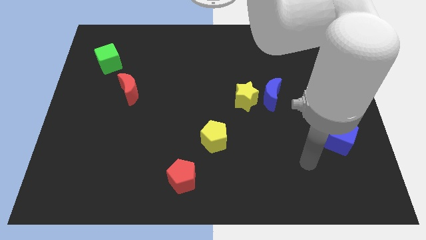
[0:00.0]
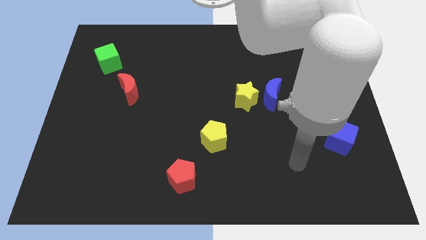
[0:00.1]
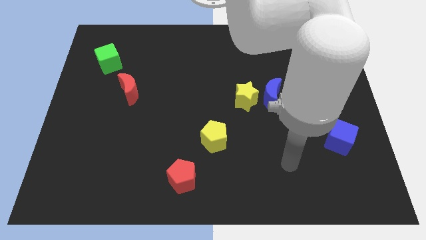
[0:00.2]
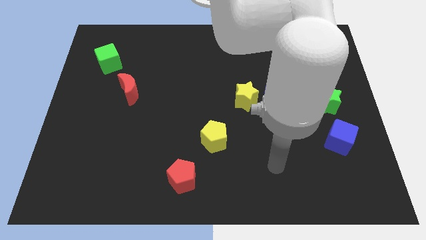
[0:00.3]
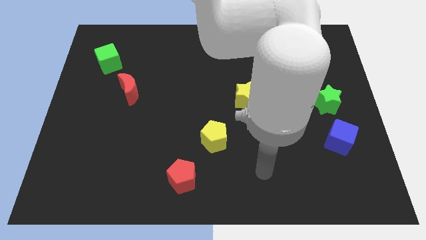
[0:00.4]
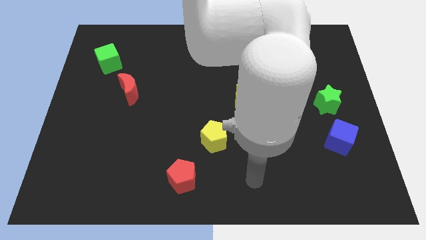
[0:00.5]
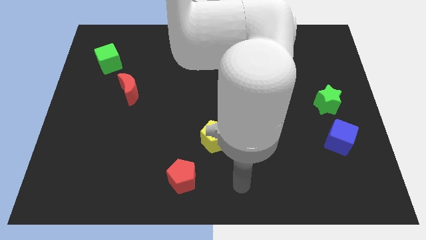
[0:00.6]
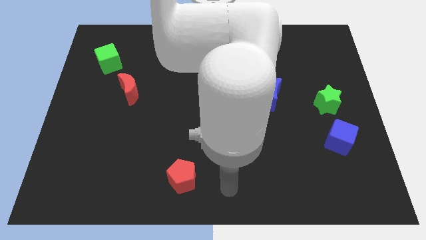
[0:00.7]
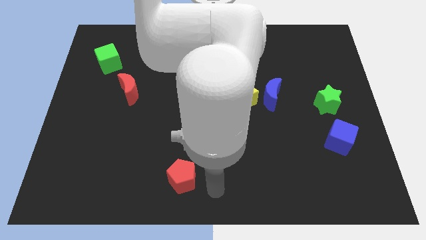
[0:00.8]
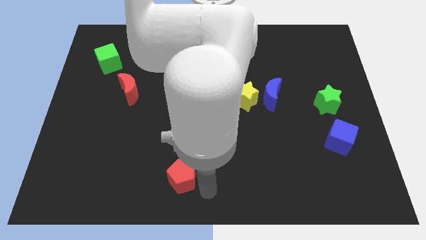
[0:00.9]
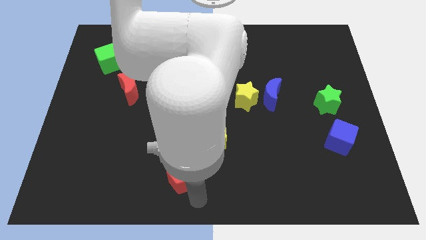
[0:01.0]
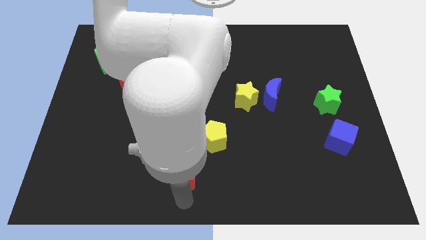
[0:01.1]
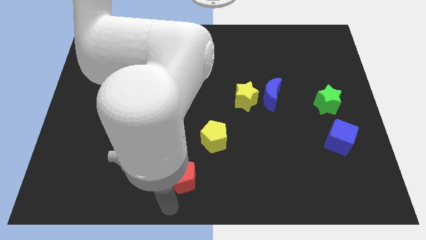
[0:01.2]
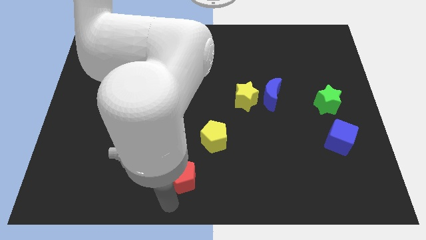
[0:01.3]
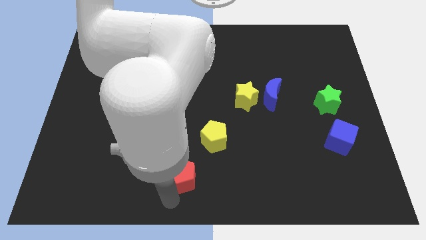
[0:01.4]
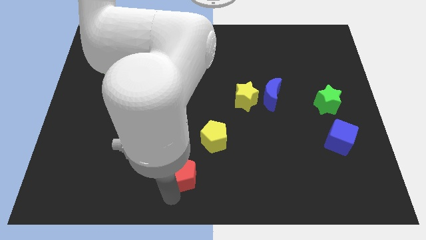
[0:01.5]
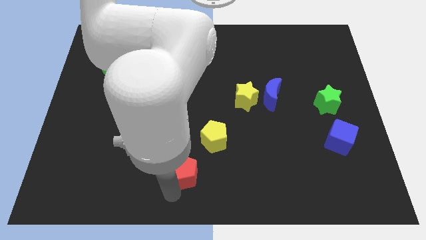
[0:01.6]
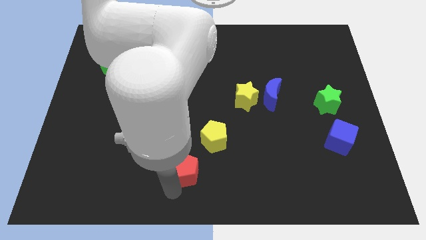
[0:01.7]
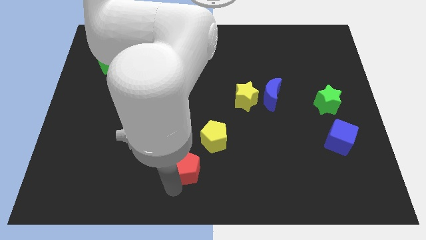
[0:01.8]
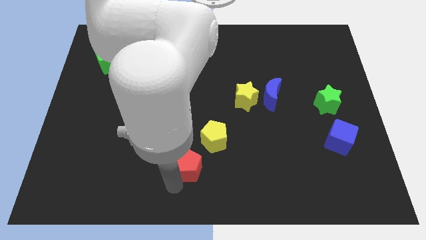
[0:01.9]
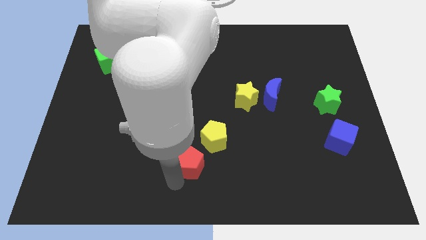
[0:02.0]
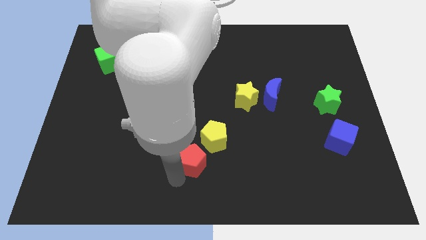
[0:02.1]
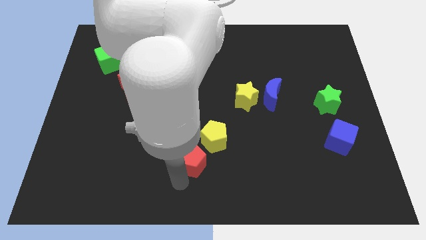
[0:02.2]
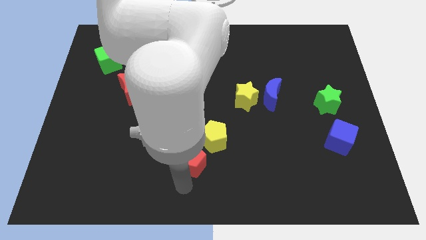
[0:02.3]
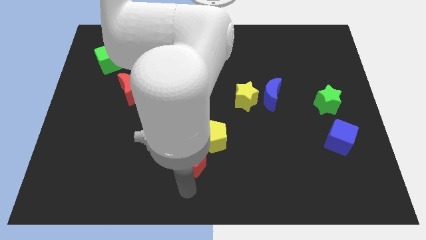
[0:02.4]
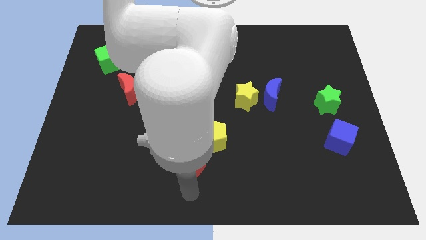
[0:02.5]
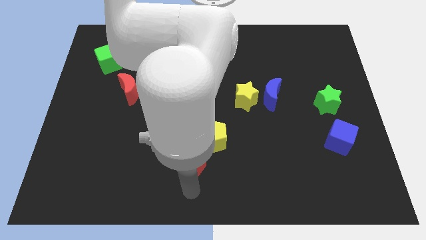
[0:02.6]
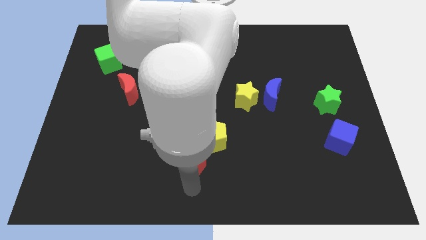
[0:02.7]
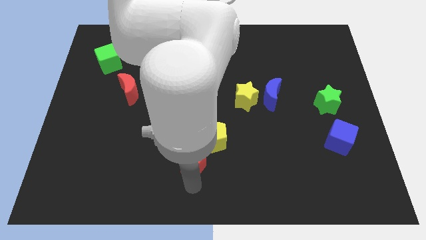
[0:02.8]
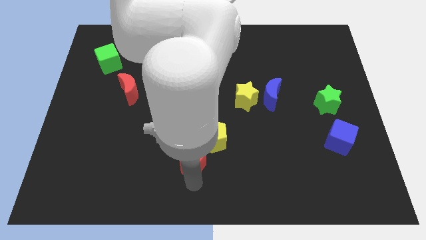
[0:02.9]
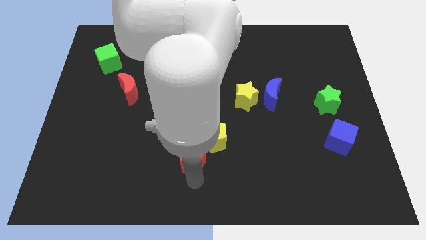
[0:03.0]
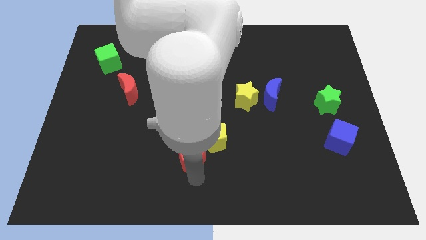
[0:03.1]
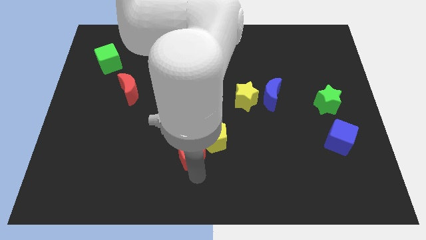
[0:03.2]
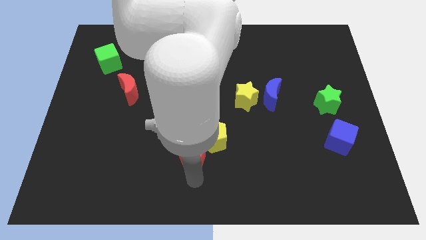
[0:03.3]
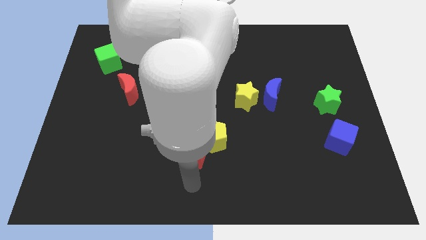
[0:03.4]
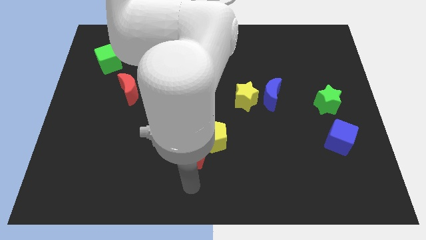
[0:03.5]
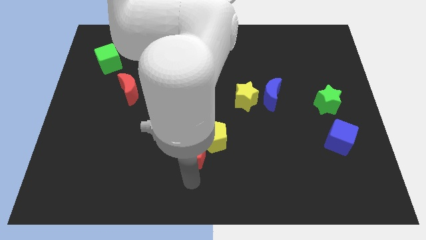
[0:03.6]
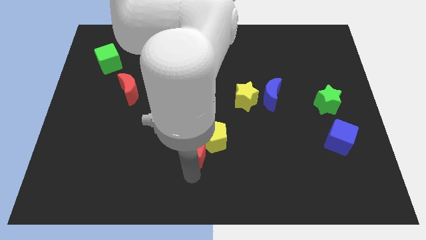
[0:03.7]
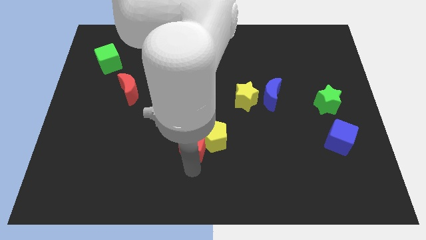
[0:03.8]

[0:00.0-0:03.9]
slightly slide the red pentagon upwards

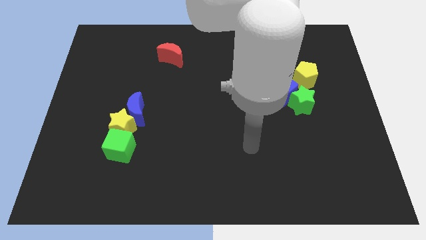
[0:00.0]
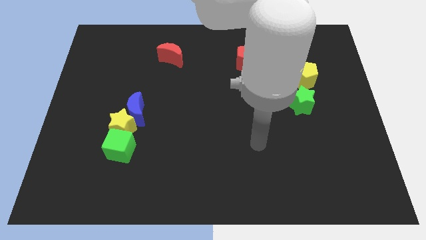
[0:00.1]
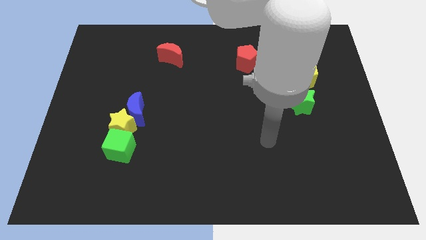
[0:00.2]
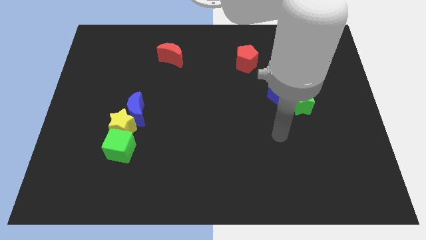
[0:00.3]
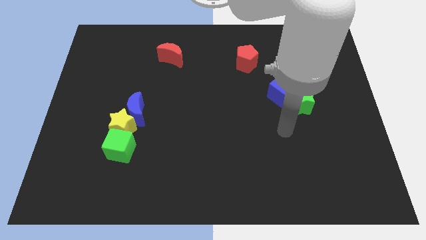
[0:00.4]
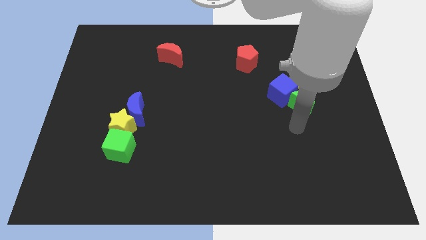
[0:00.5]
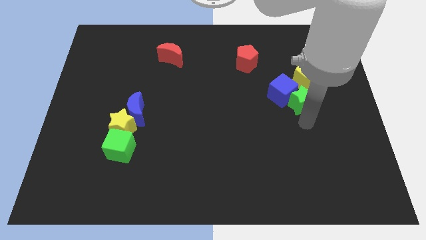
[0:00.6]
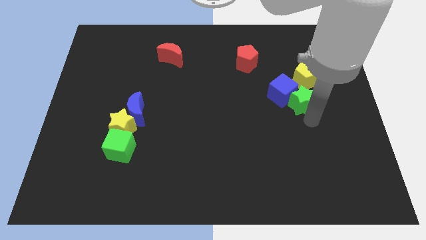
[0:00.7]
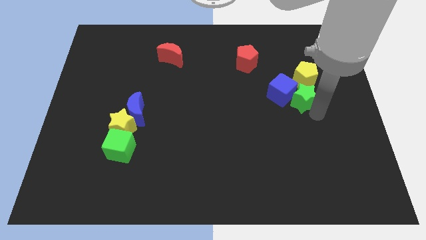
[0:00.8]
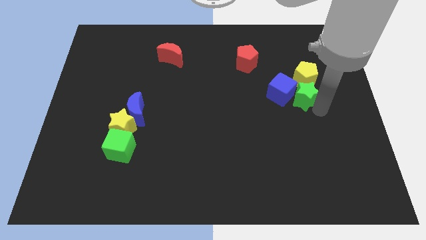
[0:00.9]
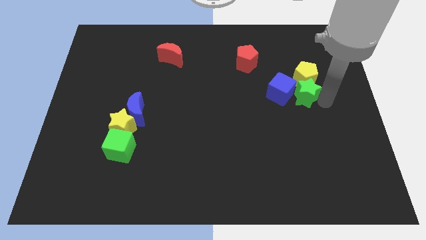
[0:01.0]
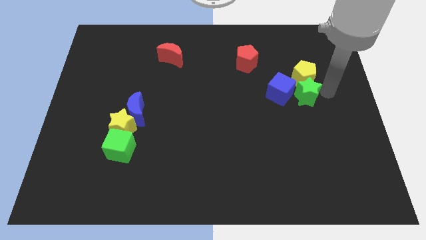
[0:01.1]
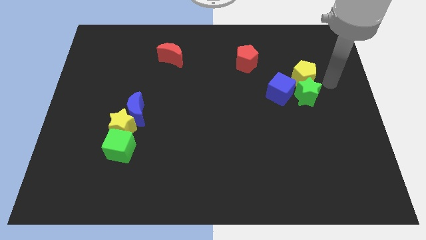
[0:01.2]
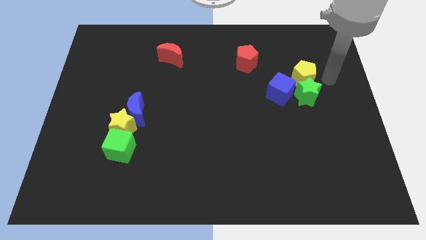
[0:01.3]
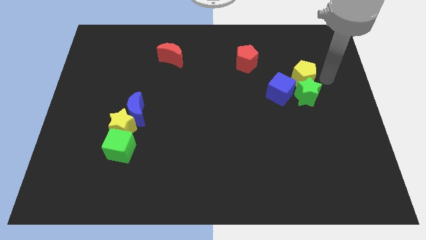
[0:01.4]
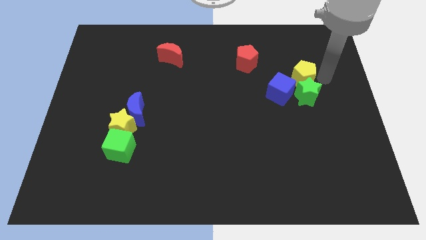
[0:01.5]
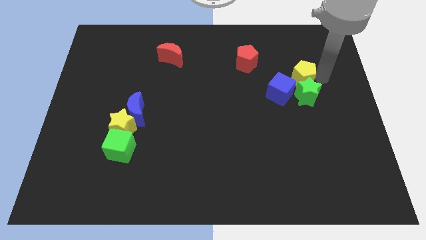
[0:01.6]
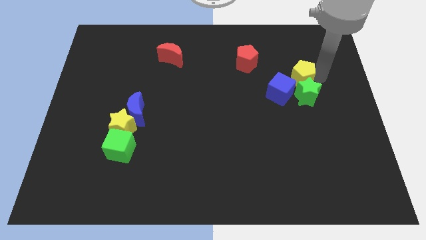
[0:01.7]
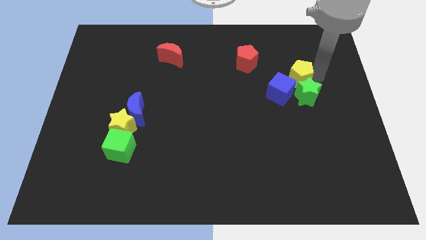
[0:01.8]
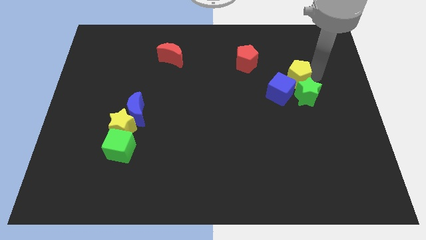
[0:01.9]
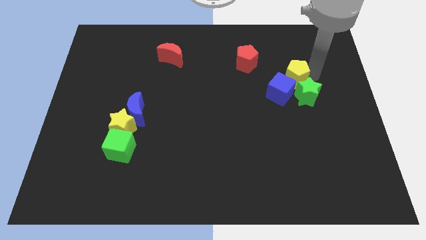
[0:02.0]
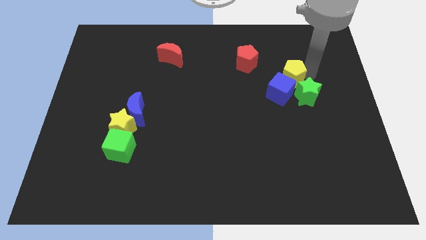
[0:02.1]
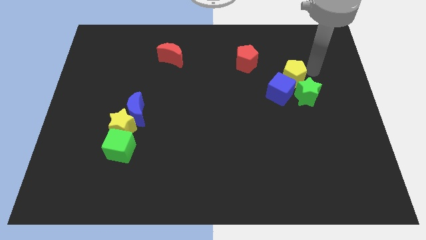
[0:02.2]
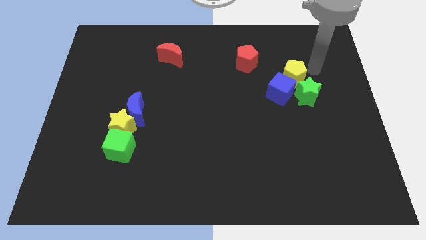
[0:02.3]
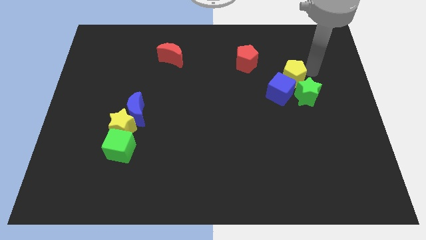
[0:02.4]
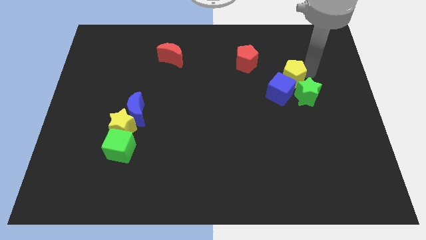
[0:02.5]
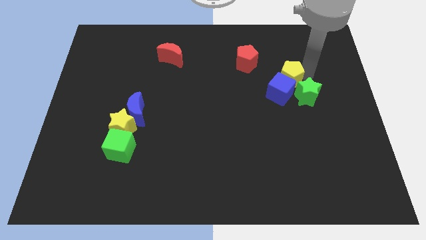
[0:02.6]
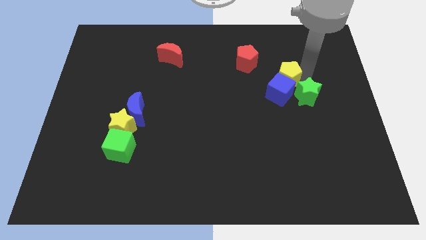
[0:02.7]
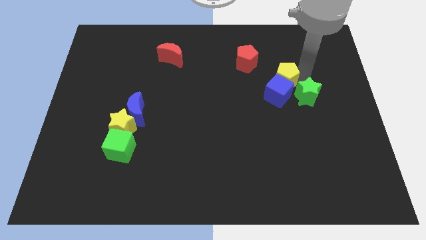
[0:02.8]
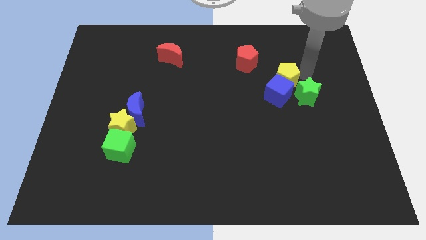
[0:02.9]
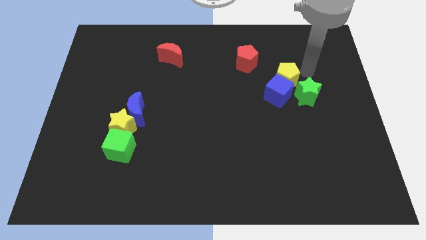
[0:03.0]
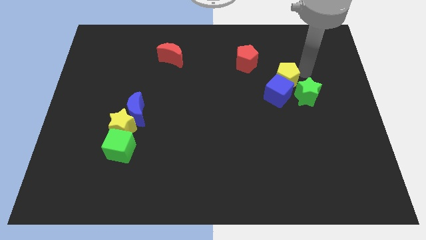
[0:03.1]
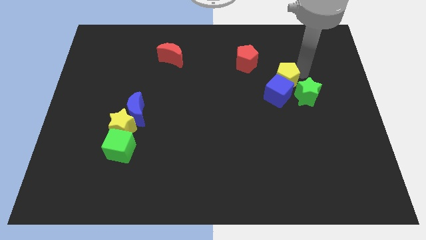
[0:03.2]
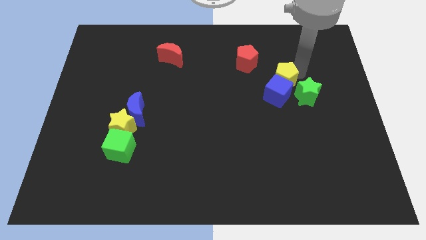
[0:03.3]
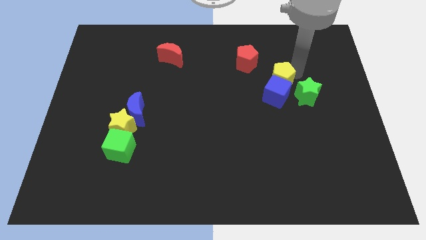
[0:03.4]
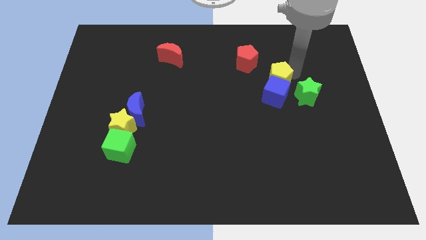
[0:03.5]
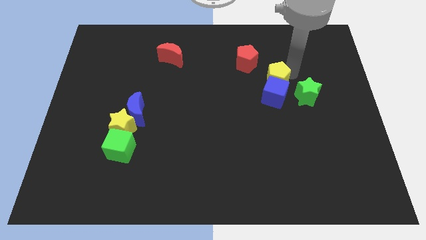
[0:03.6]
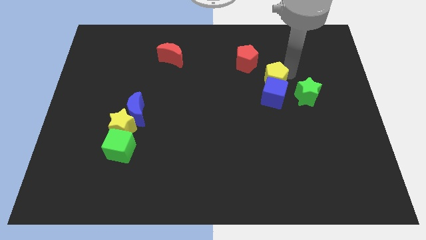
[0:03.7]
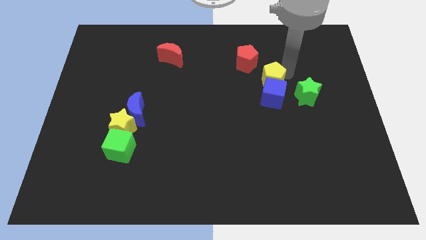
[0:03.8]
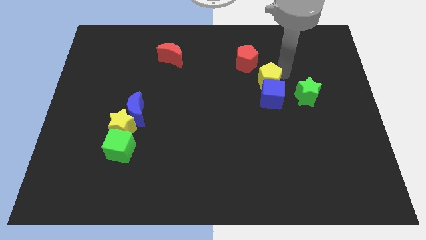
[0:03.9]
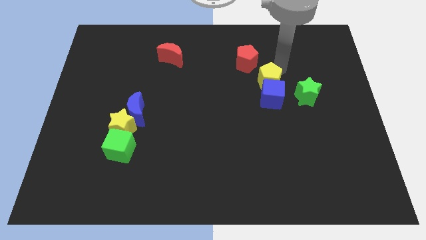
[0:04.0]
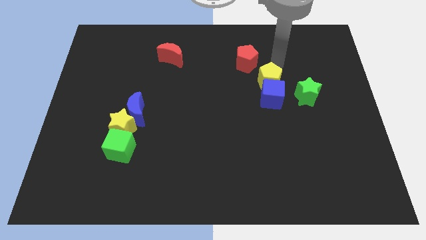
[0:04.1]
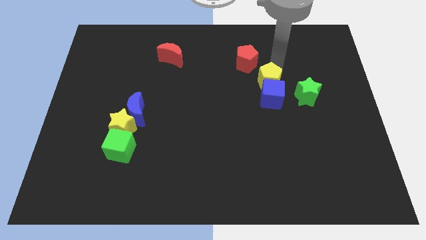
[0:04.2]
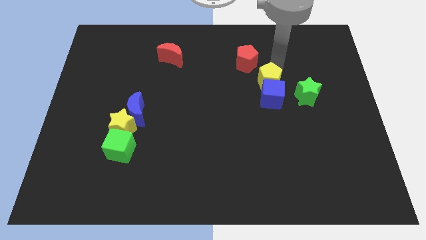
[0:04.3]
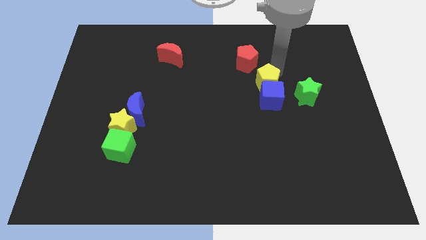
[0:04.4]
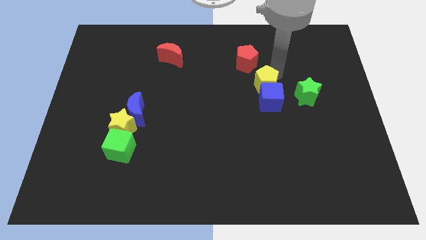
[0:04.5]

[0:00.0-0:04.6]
slightly move the yellow pentagon diagonally downwards and to the left
